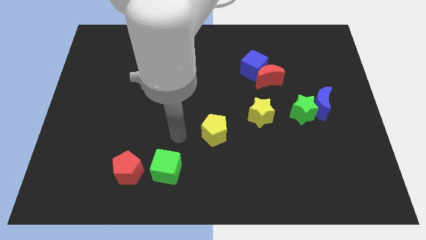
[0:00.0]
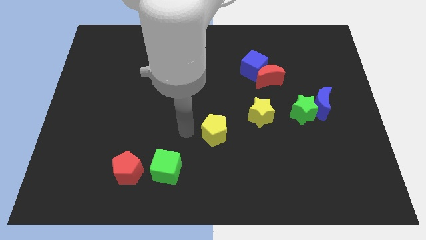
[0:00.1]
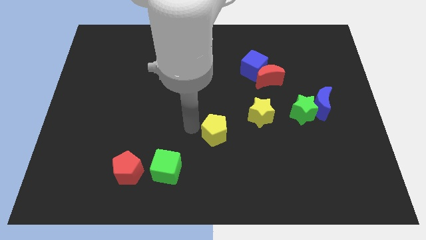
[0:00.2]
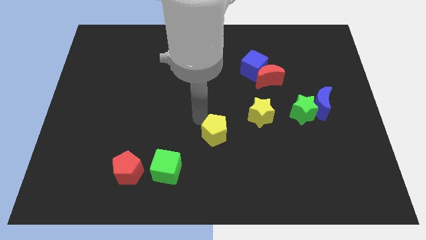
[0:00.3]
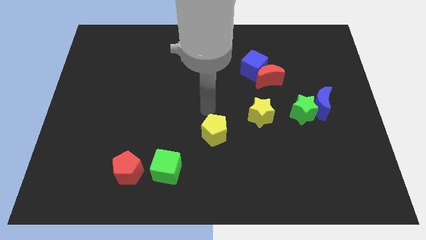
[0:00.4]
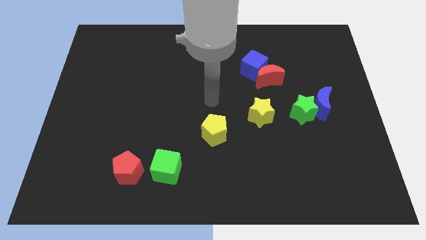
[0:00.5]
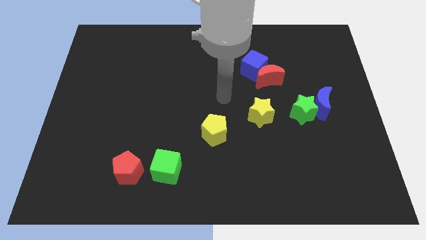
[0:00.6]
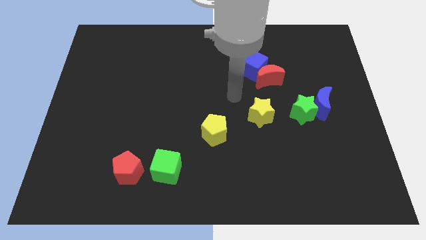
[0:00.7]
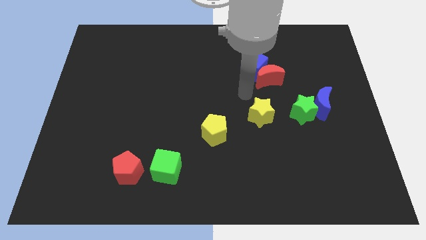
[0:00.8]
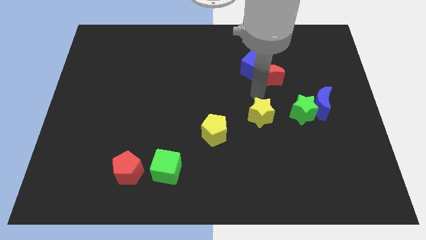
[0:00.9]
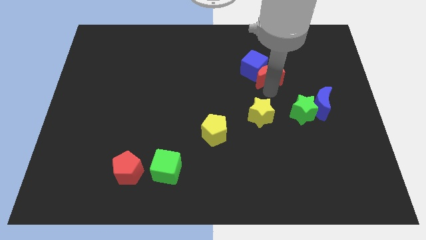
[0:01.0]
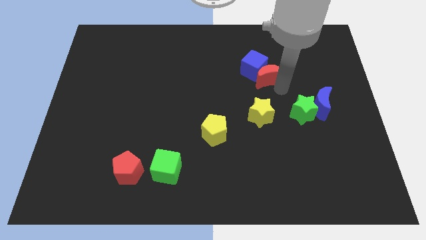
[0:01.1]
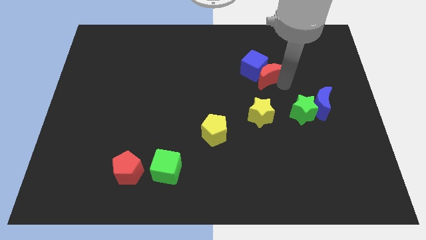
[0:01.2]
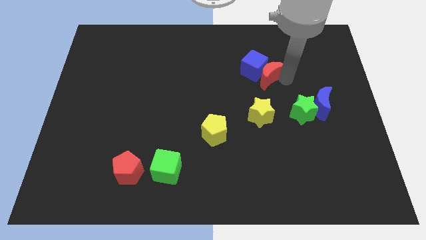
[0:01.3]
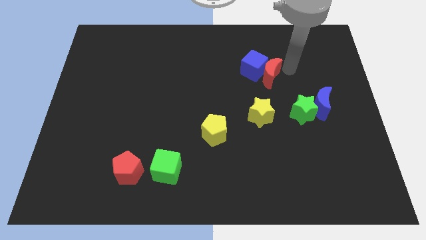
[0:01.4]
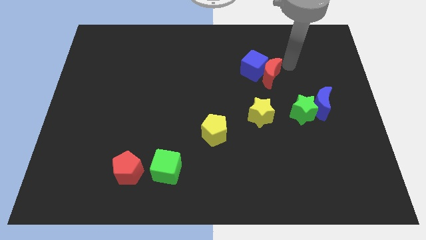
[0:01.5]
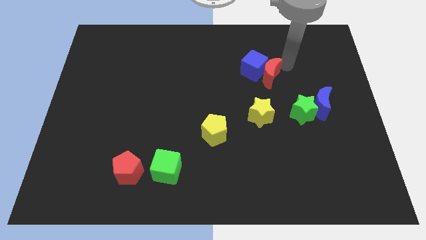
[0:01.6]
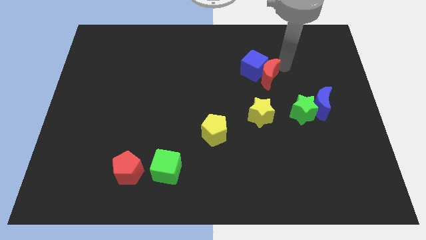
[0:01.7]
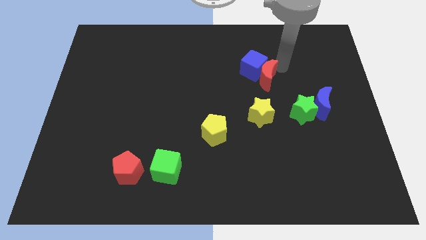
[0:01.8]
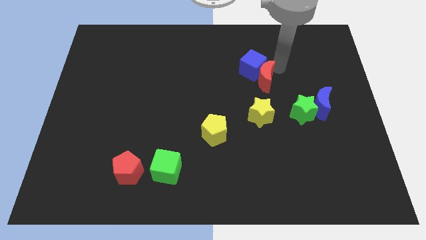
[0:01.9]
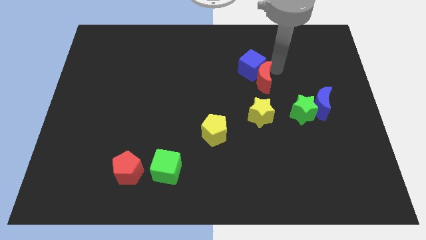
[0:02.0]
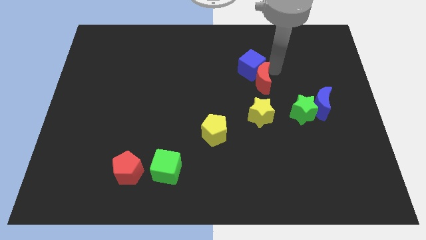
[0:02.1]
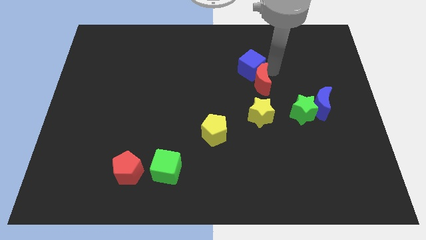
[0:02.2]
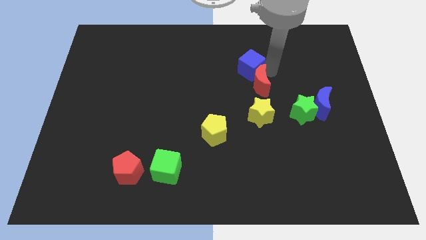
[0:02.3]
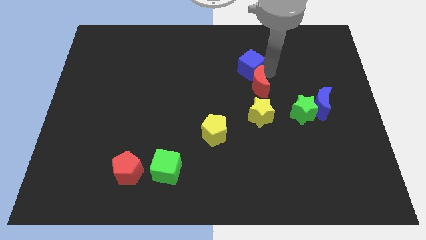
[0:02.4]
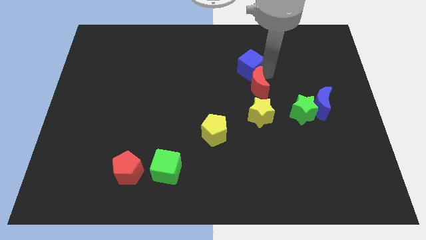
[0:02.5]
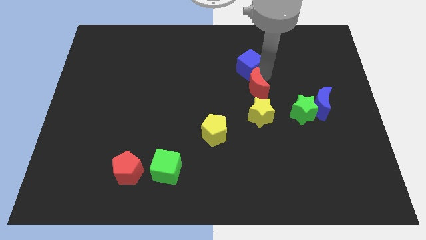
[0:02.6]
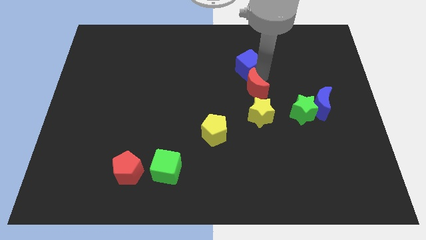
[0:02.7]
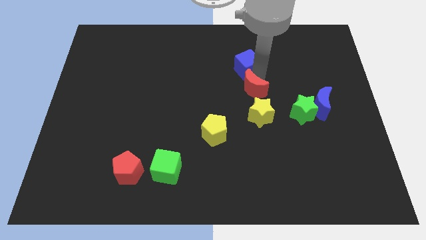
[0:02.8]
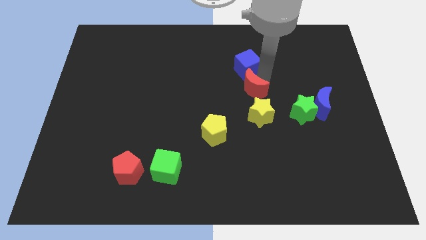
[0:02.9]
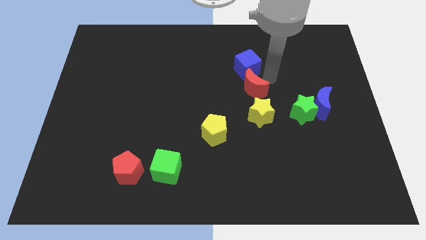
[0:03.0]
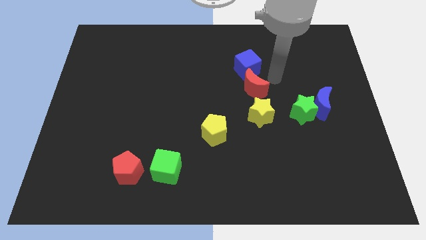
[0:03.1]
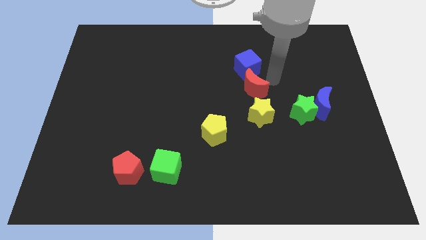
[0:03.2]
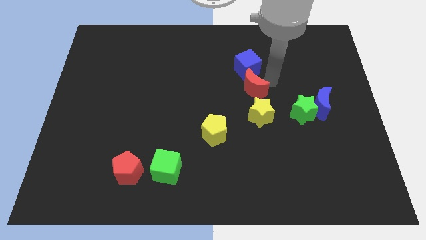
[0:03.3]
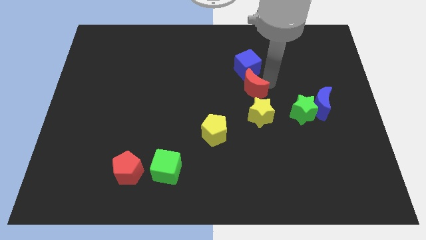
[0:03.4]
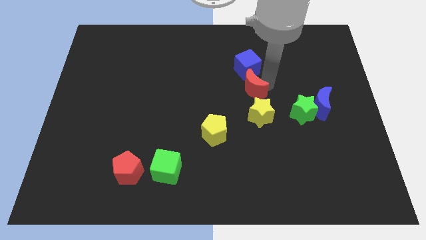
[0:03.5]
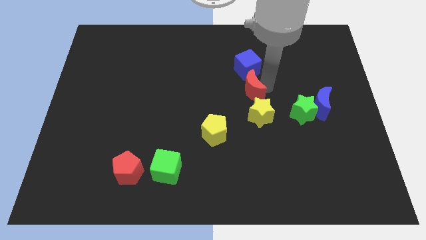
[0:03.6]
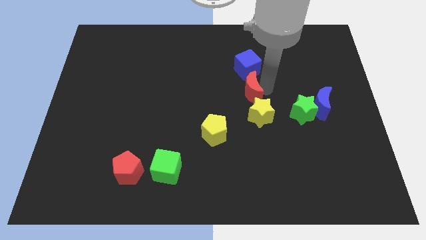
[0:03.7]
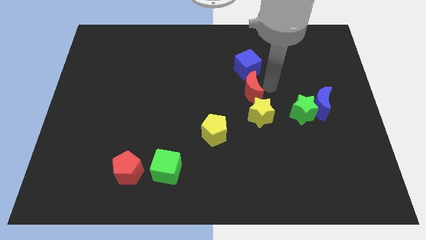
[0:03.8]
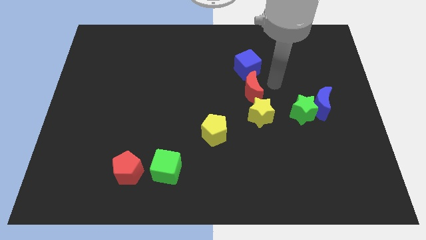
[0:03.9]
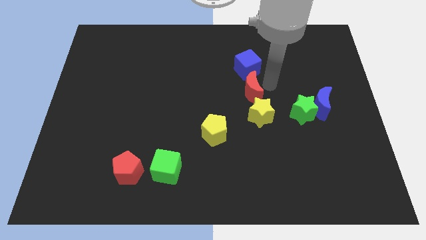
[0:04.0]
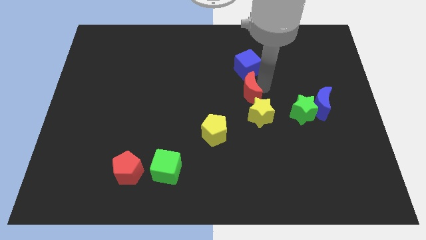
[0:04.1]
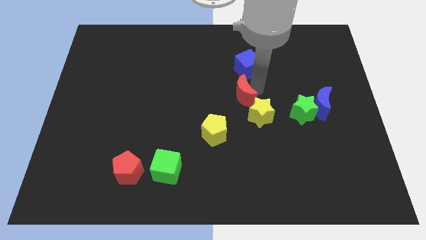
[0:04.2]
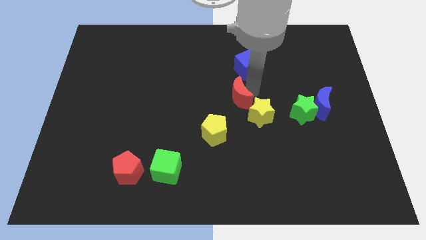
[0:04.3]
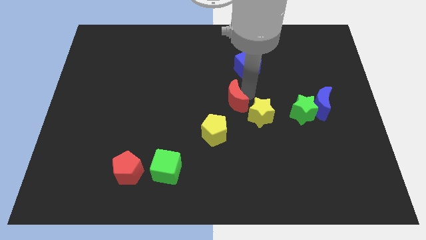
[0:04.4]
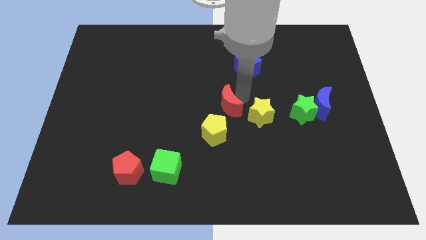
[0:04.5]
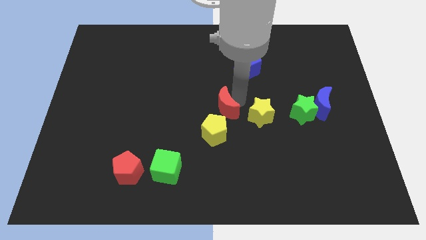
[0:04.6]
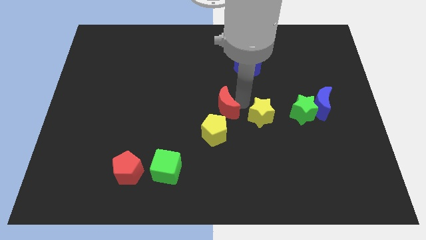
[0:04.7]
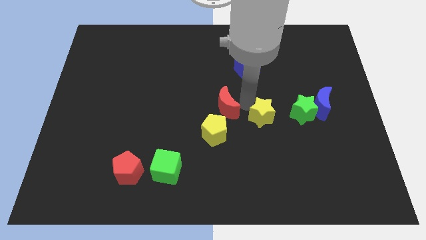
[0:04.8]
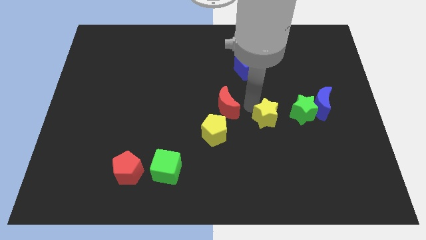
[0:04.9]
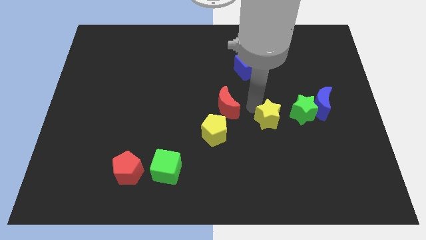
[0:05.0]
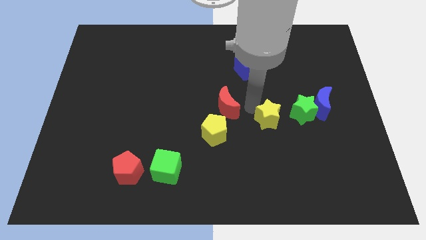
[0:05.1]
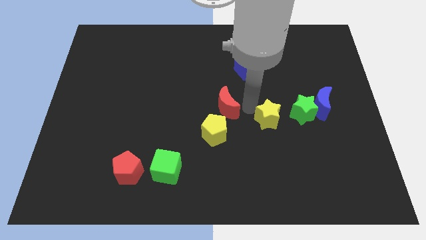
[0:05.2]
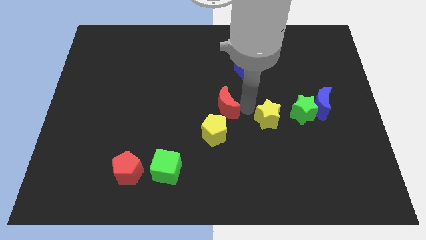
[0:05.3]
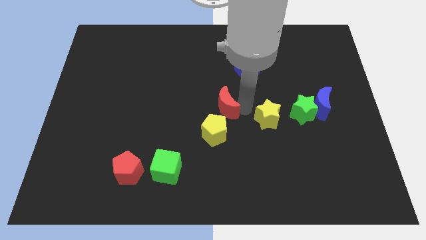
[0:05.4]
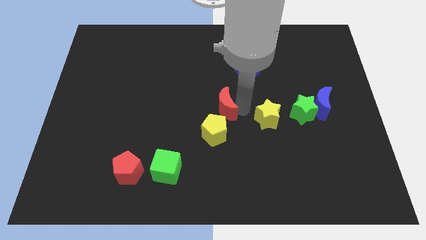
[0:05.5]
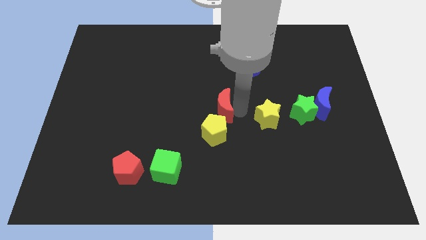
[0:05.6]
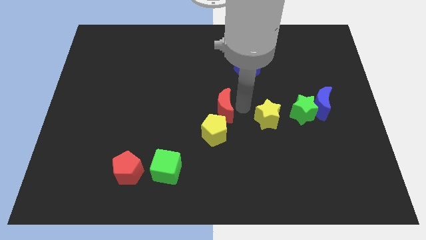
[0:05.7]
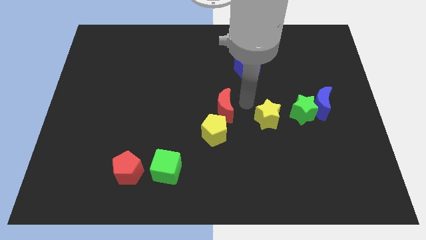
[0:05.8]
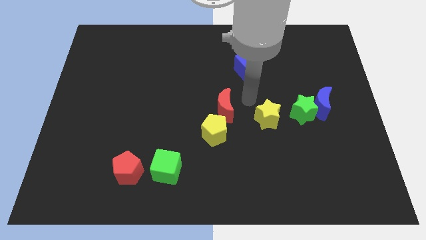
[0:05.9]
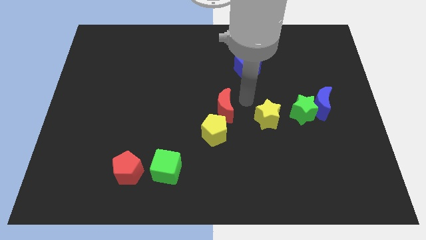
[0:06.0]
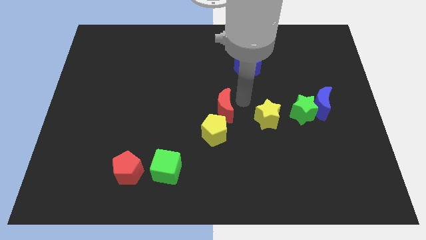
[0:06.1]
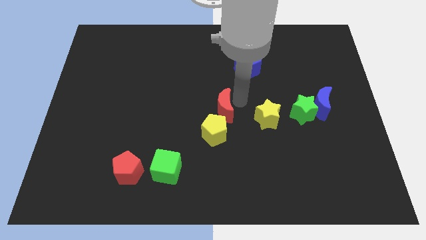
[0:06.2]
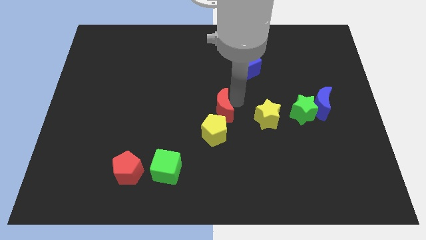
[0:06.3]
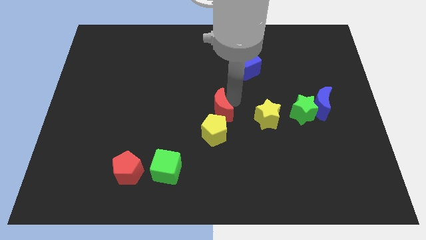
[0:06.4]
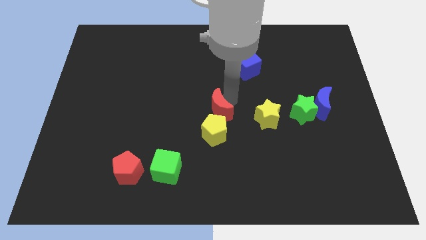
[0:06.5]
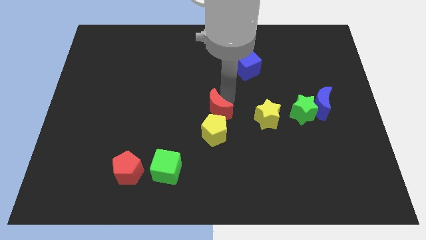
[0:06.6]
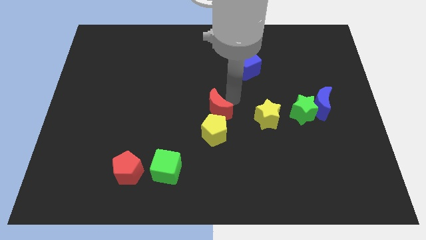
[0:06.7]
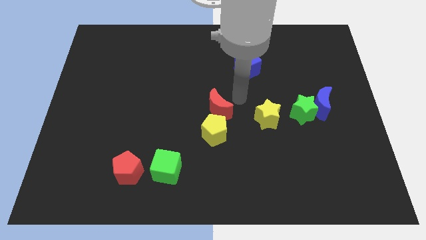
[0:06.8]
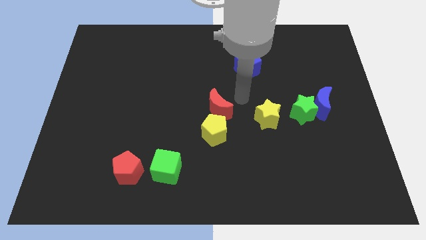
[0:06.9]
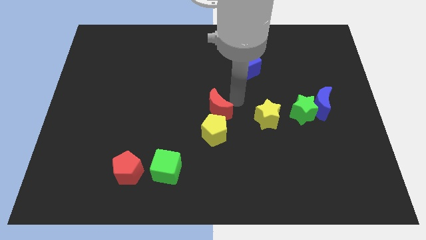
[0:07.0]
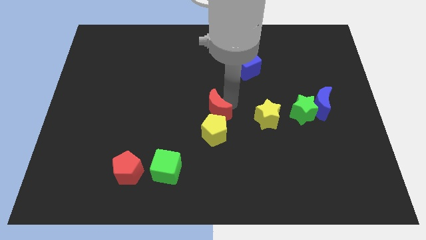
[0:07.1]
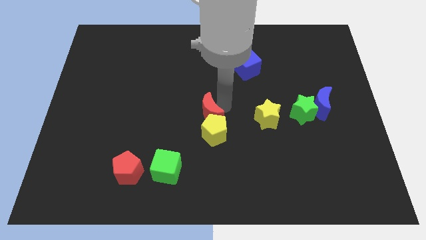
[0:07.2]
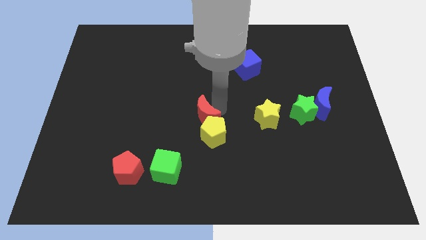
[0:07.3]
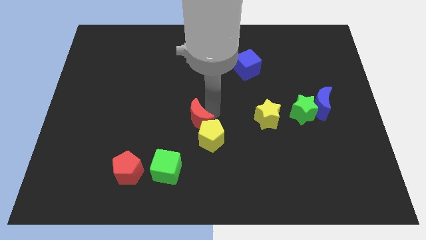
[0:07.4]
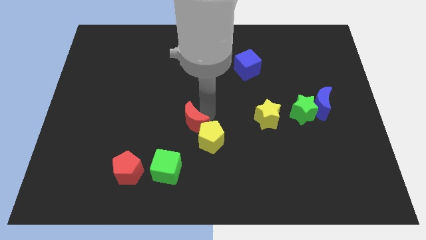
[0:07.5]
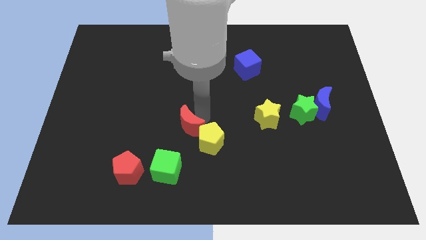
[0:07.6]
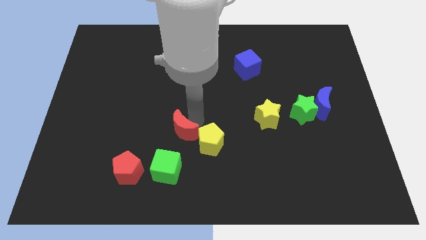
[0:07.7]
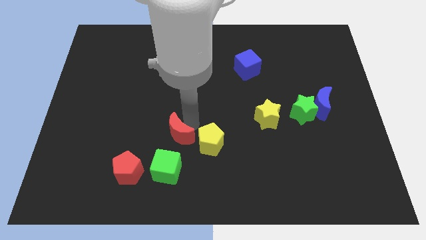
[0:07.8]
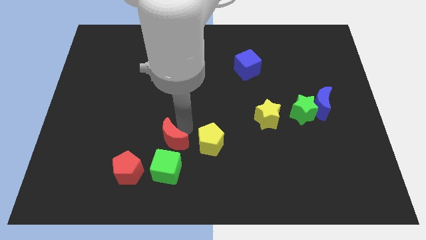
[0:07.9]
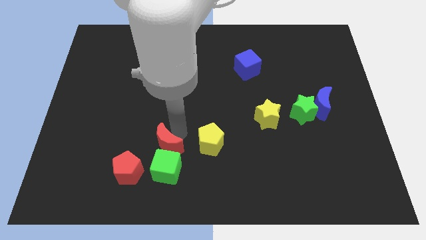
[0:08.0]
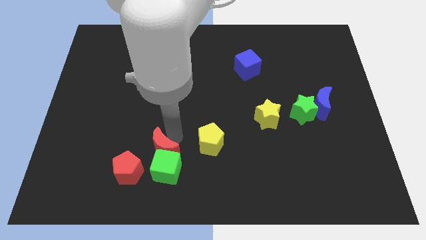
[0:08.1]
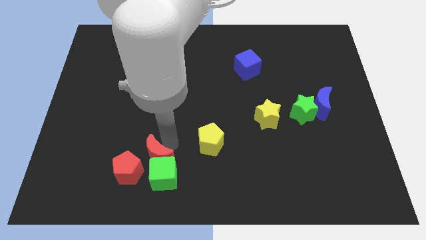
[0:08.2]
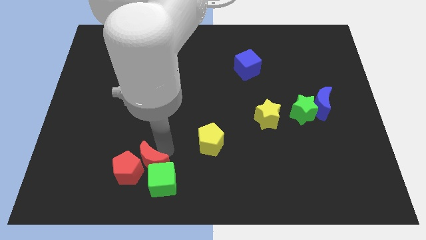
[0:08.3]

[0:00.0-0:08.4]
move the red moon towards the red pentagon
